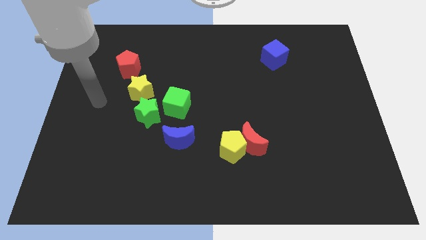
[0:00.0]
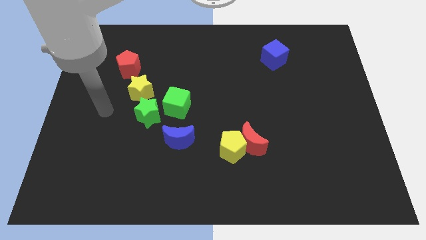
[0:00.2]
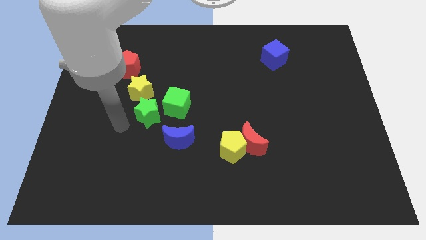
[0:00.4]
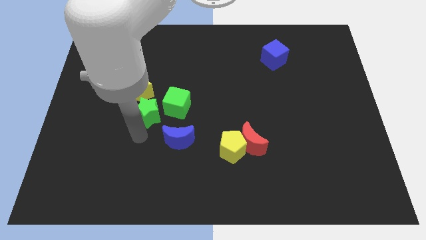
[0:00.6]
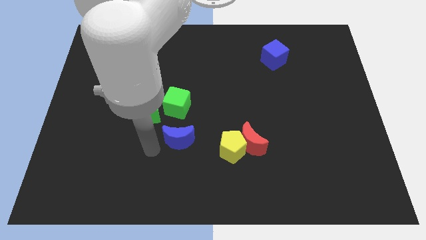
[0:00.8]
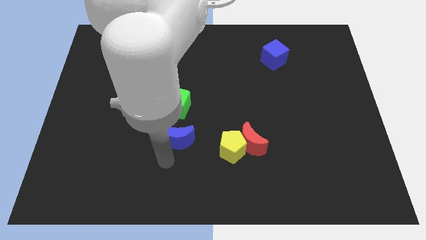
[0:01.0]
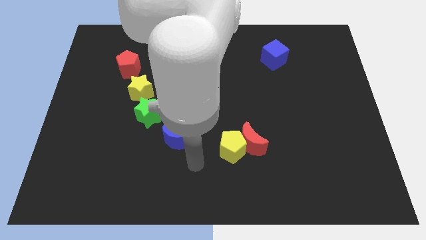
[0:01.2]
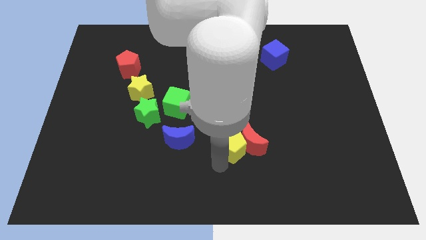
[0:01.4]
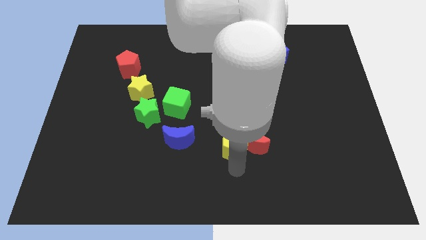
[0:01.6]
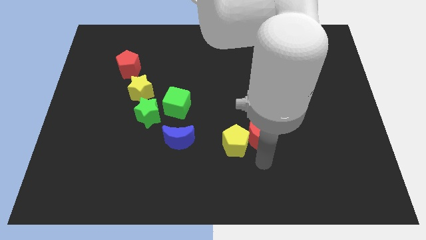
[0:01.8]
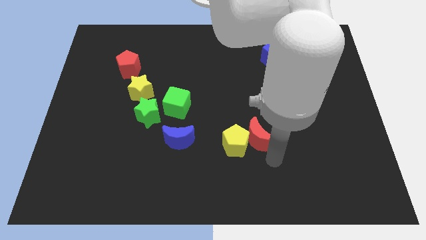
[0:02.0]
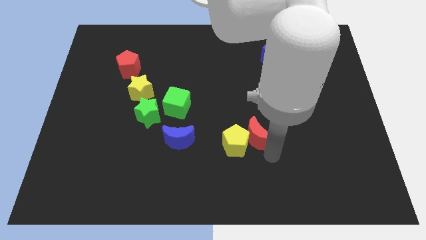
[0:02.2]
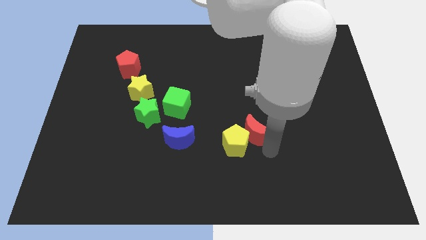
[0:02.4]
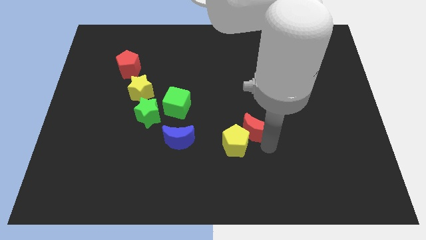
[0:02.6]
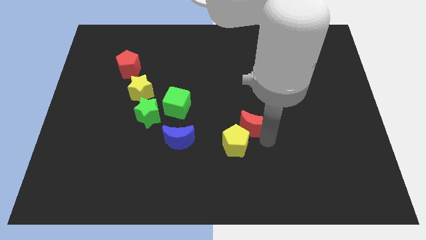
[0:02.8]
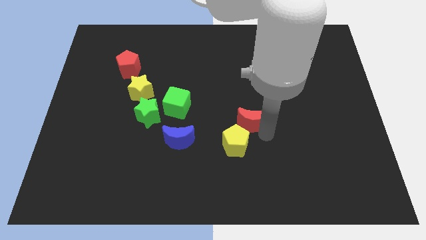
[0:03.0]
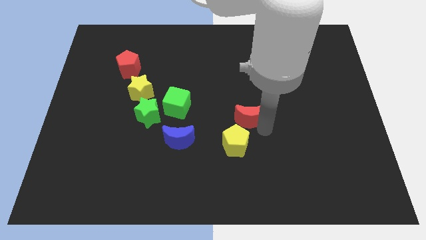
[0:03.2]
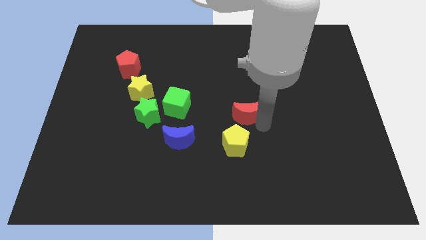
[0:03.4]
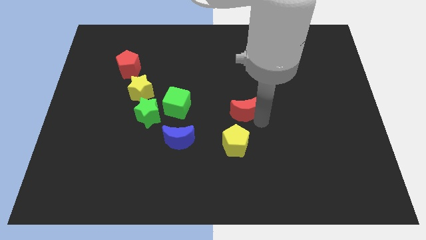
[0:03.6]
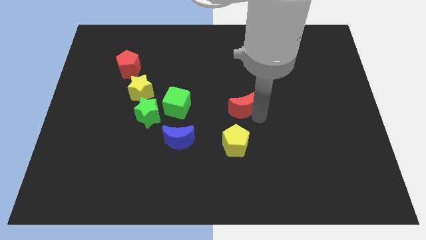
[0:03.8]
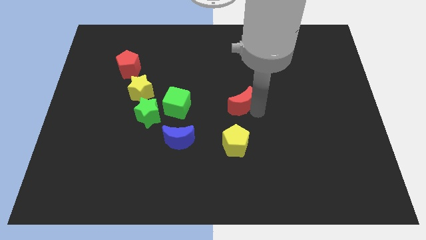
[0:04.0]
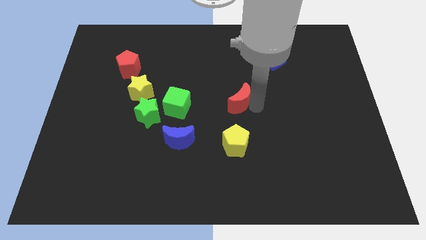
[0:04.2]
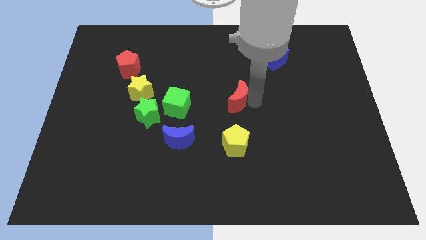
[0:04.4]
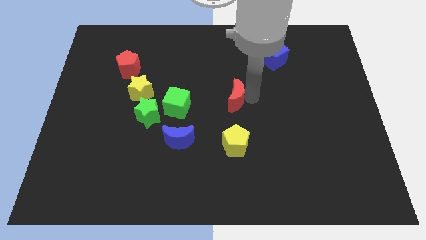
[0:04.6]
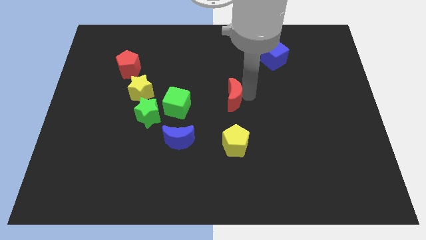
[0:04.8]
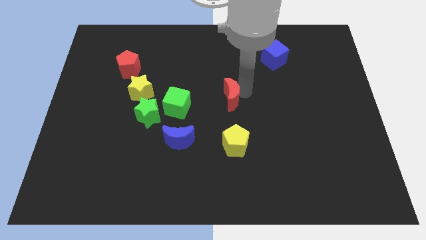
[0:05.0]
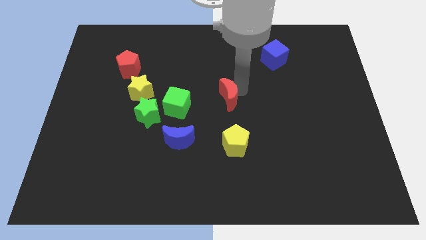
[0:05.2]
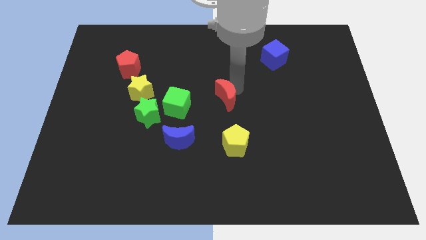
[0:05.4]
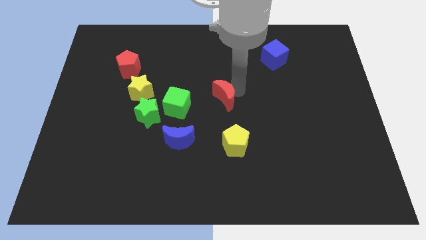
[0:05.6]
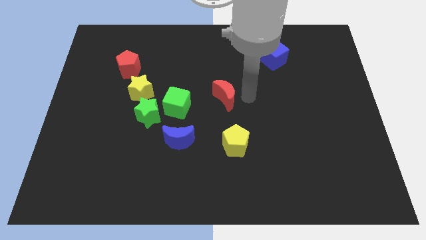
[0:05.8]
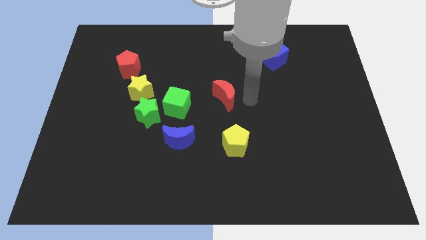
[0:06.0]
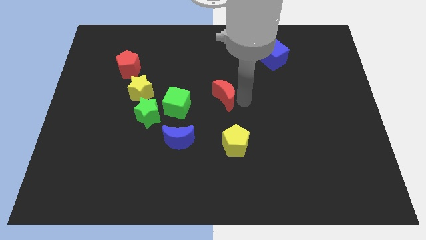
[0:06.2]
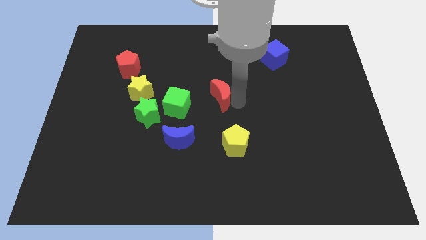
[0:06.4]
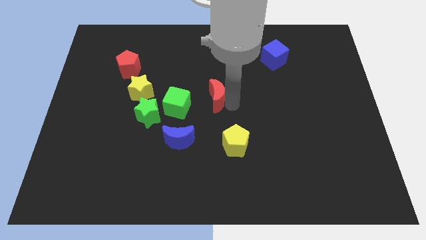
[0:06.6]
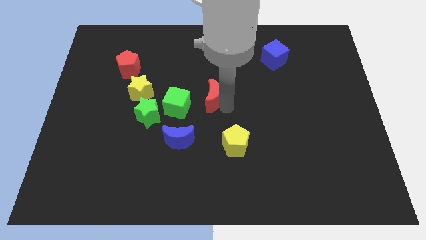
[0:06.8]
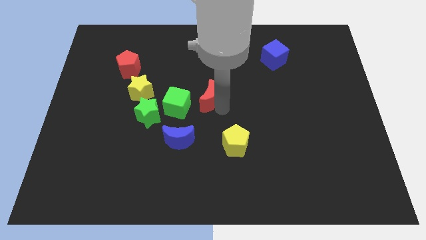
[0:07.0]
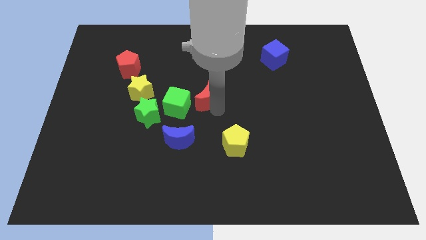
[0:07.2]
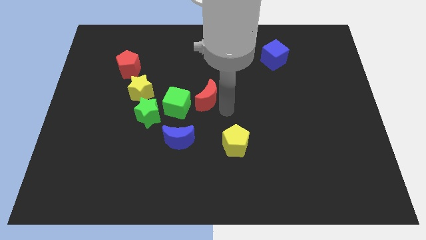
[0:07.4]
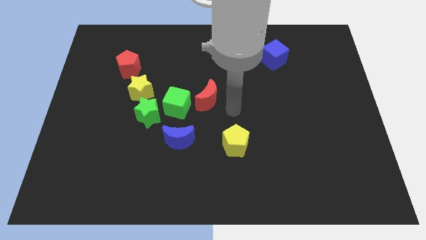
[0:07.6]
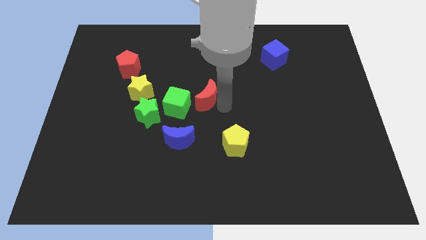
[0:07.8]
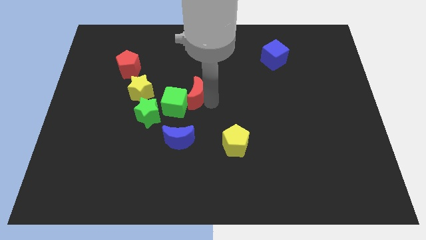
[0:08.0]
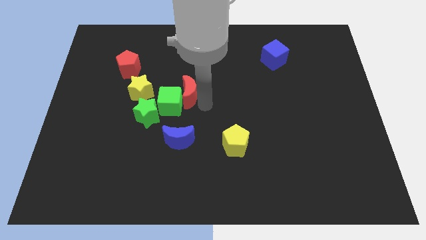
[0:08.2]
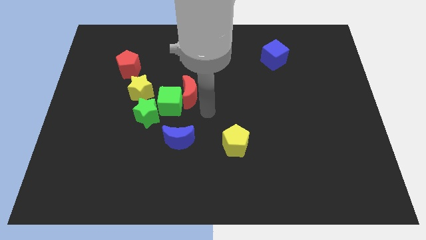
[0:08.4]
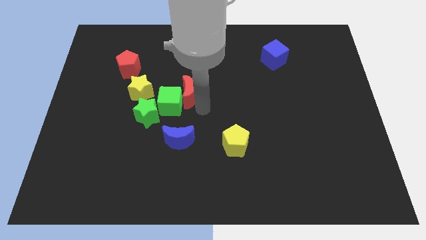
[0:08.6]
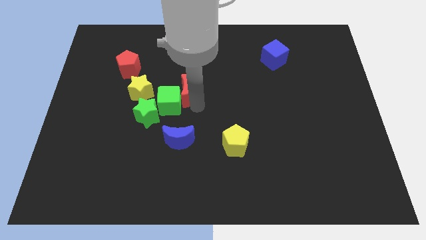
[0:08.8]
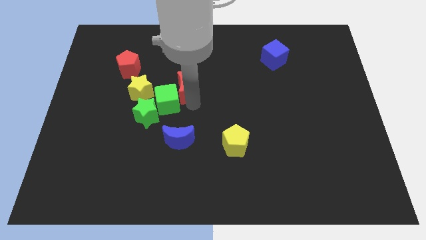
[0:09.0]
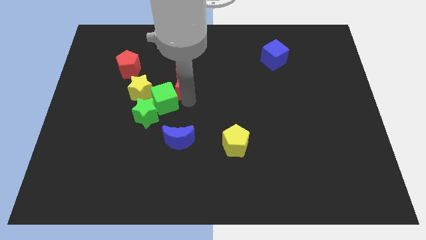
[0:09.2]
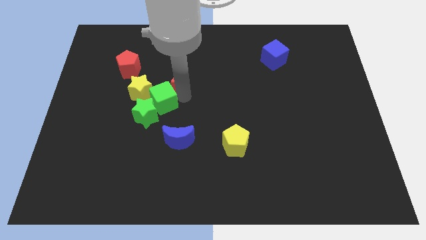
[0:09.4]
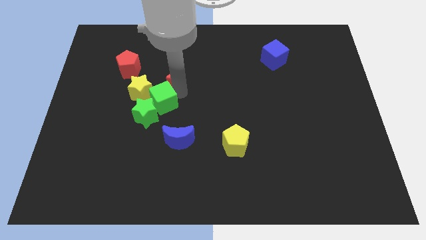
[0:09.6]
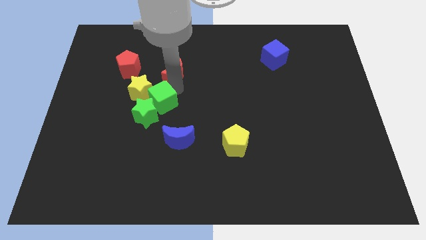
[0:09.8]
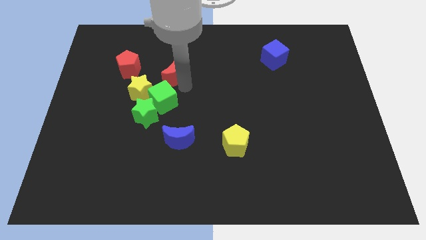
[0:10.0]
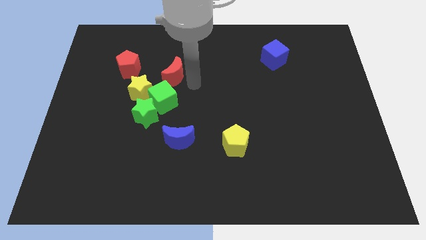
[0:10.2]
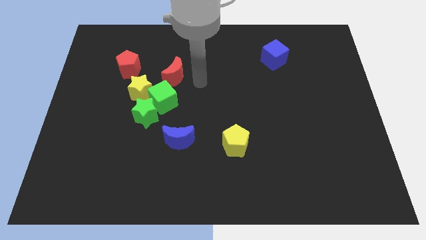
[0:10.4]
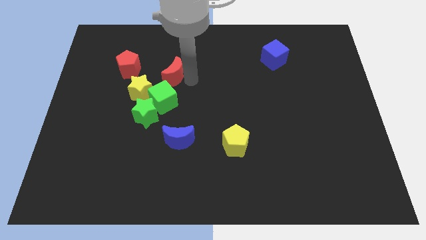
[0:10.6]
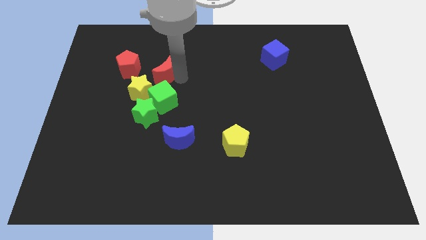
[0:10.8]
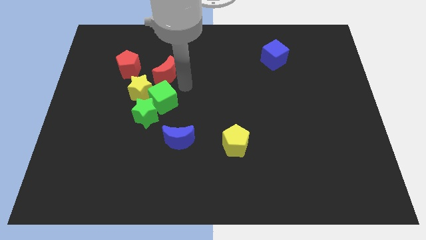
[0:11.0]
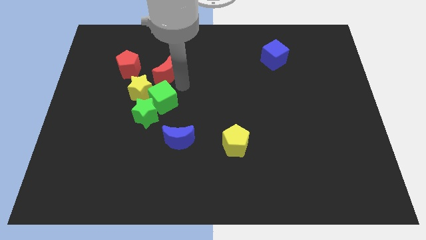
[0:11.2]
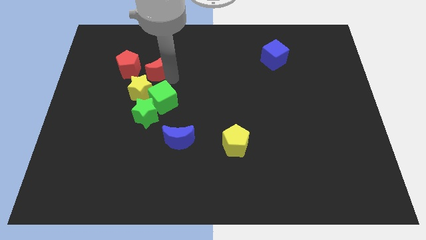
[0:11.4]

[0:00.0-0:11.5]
put the red moon to the top of the yellow star

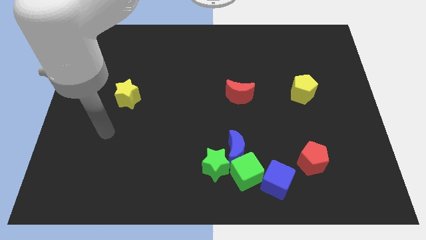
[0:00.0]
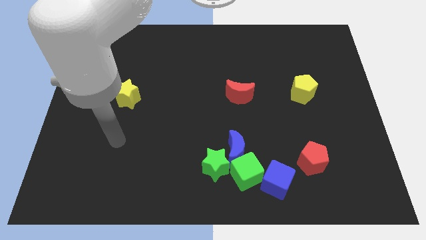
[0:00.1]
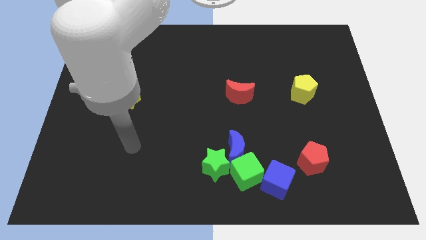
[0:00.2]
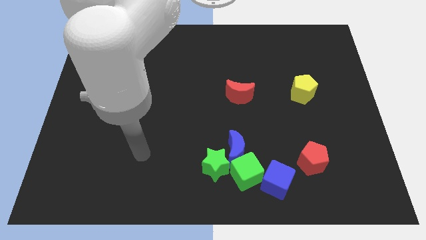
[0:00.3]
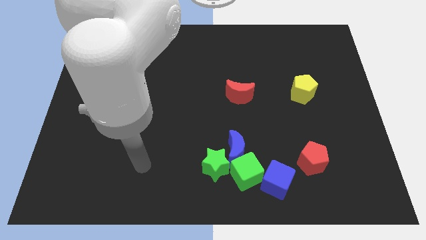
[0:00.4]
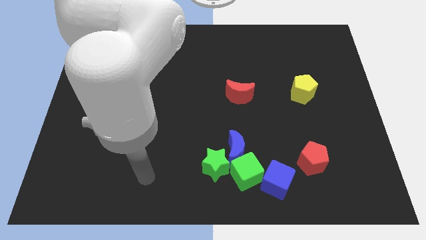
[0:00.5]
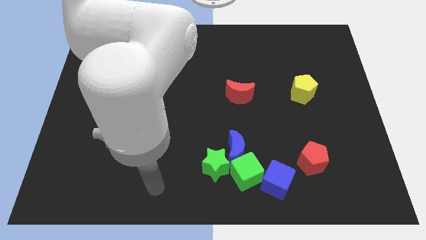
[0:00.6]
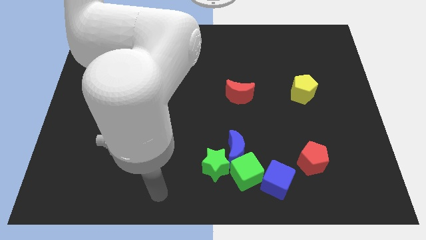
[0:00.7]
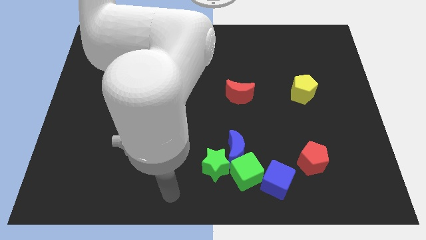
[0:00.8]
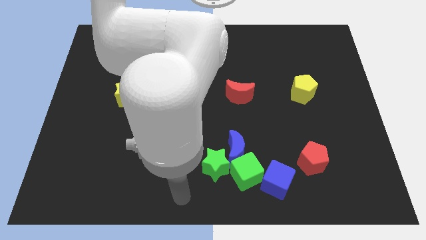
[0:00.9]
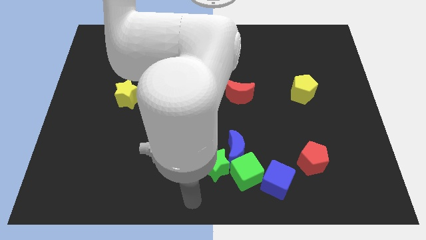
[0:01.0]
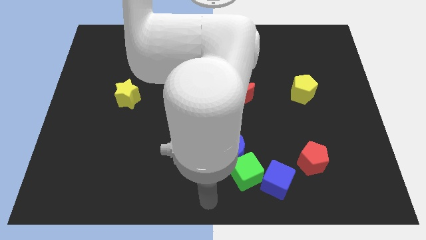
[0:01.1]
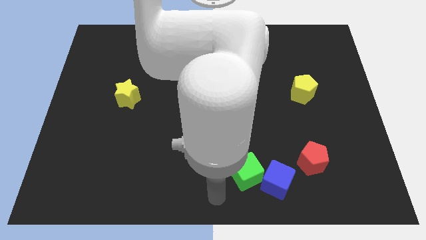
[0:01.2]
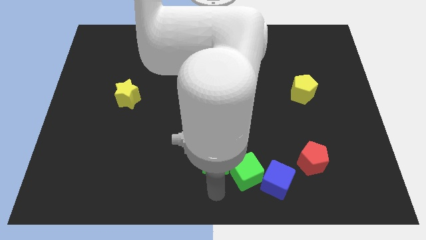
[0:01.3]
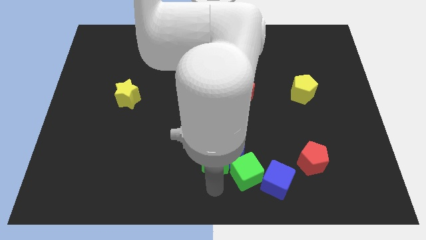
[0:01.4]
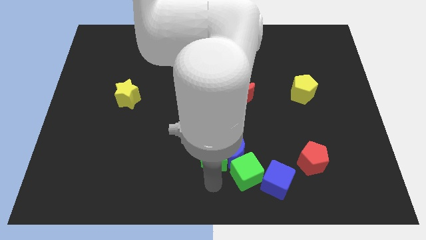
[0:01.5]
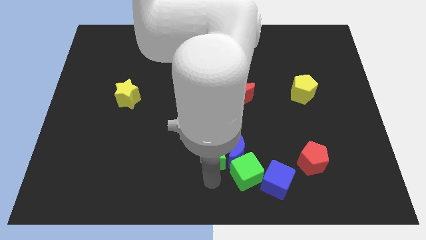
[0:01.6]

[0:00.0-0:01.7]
slide the green star to the top left of the blue moon
